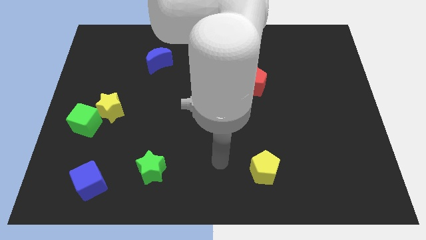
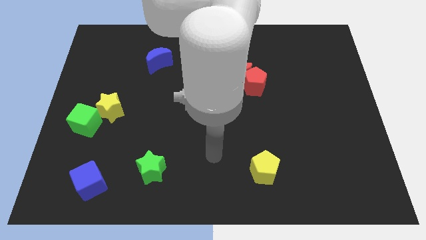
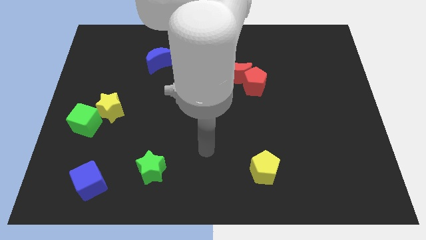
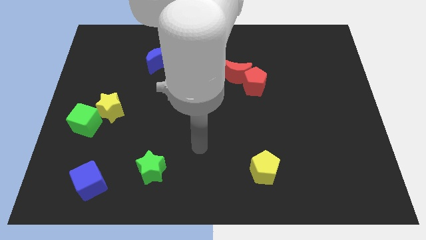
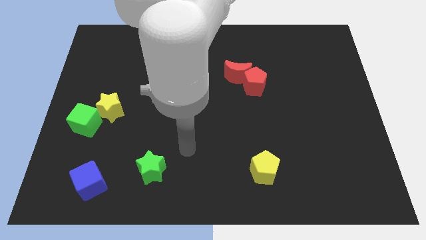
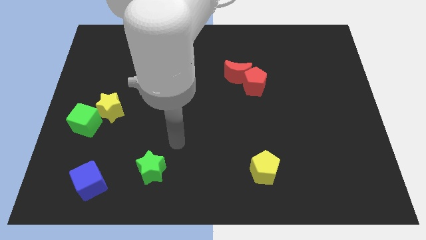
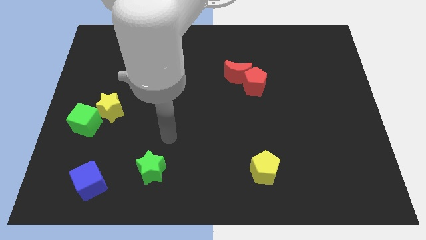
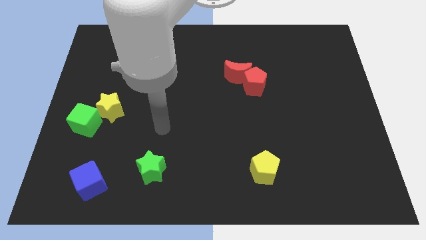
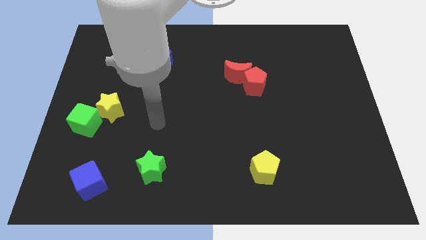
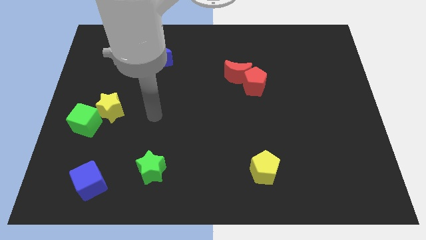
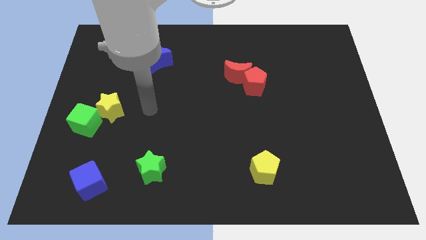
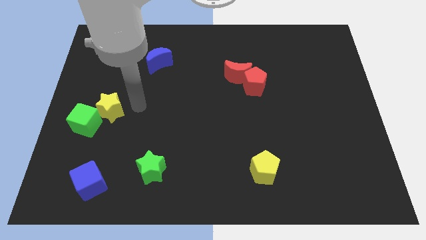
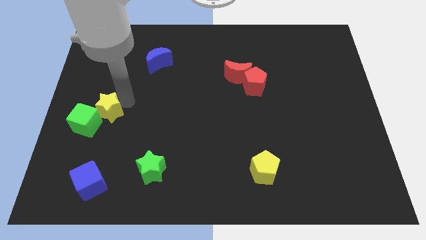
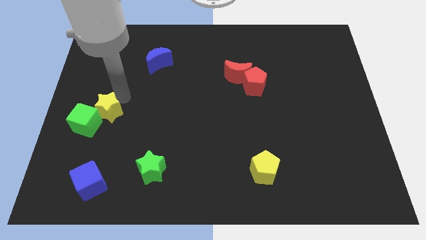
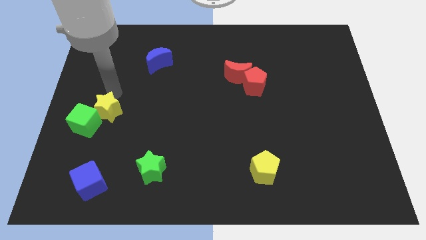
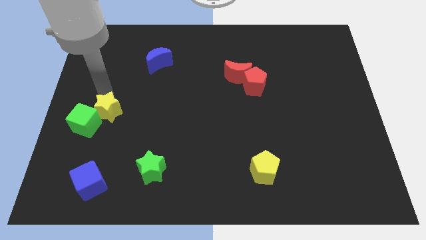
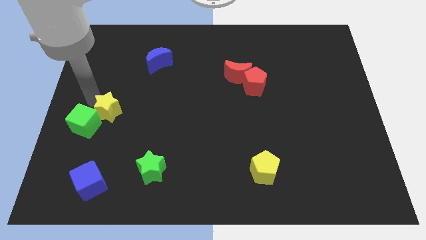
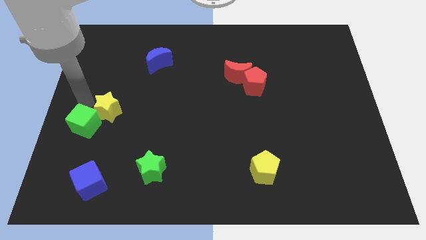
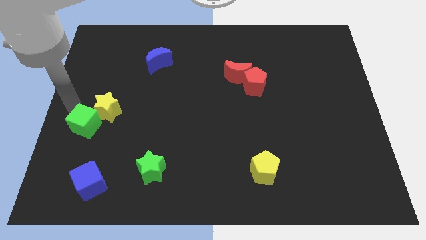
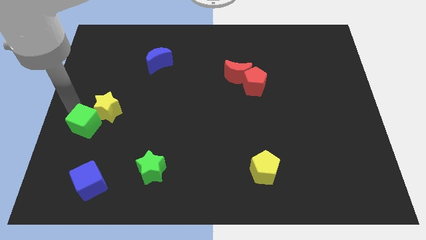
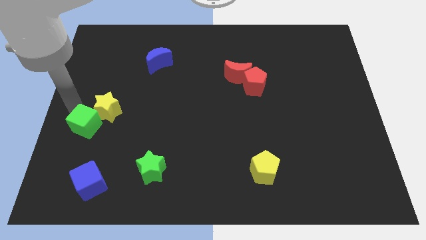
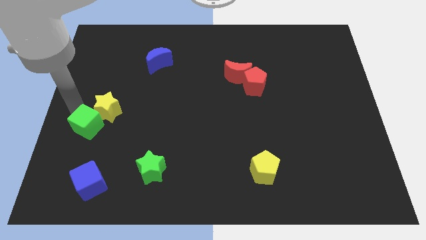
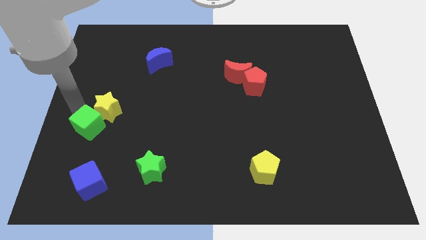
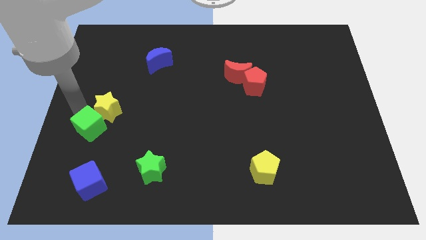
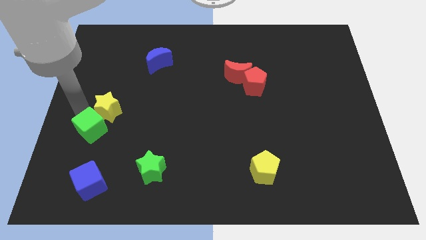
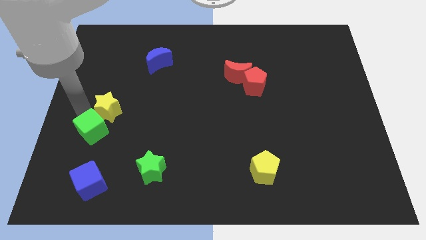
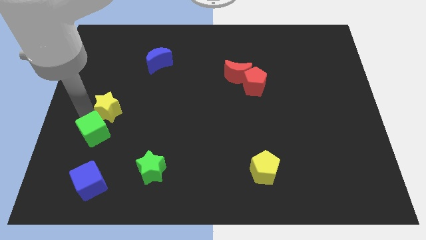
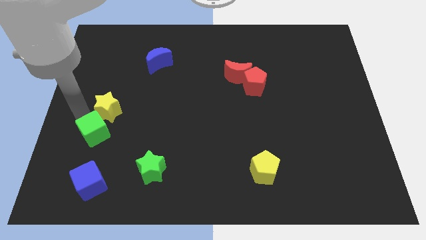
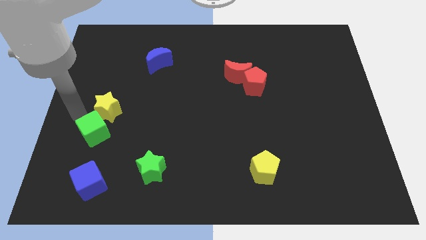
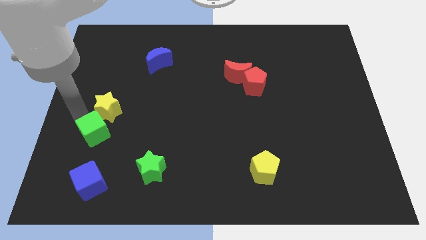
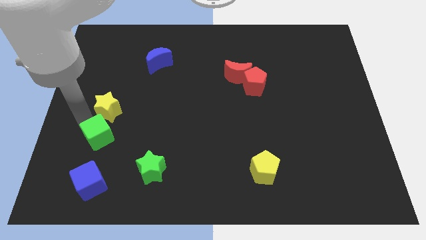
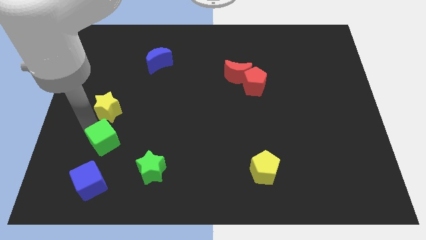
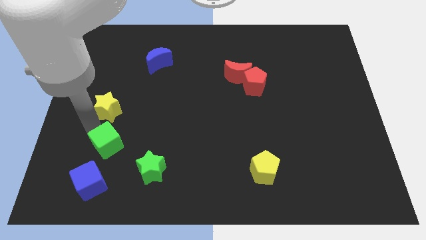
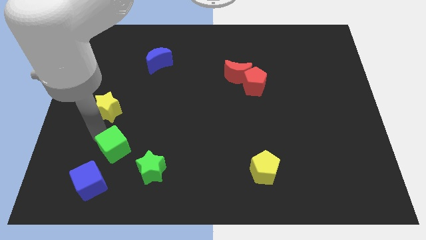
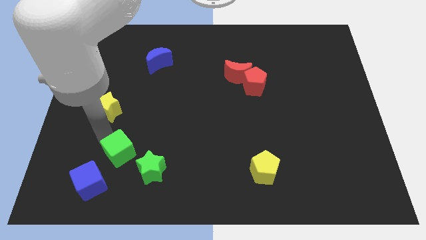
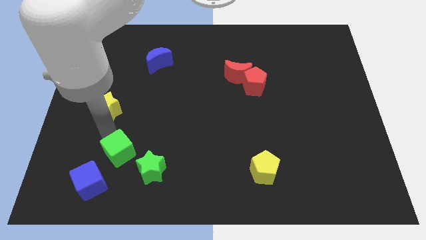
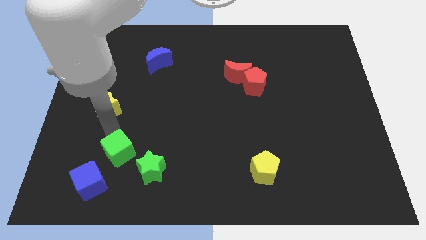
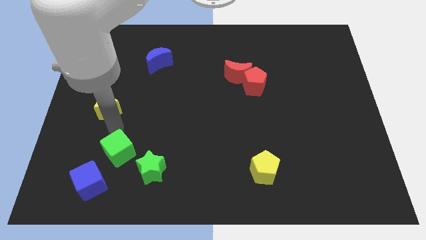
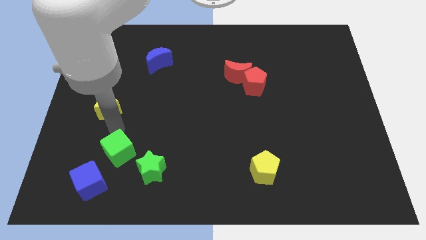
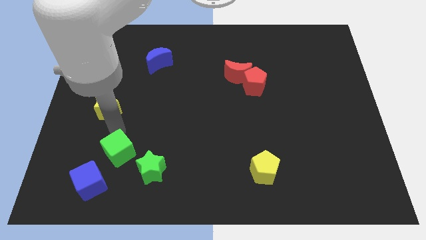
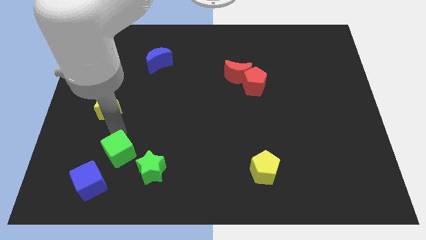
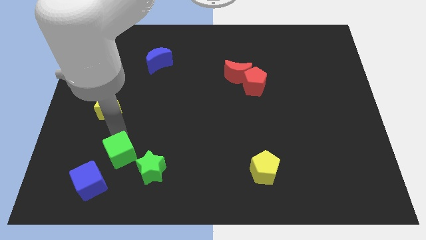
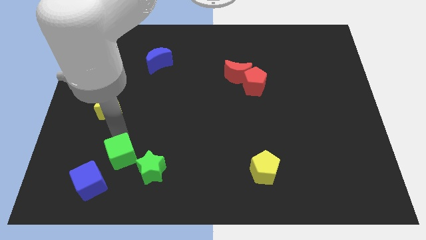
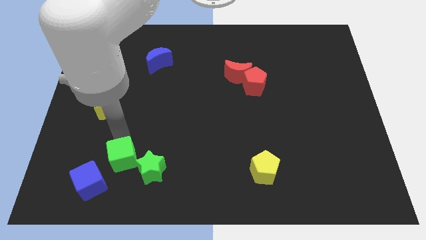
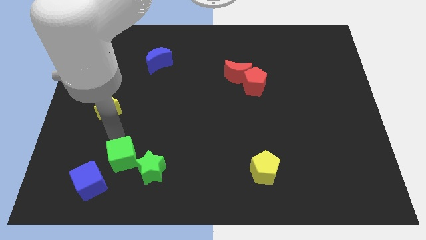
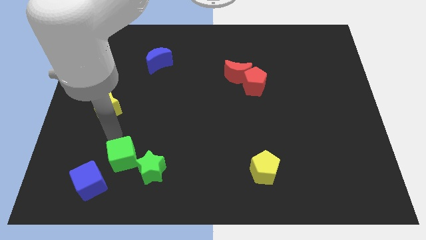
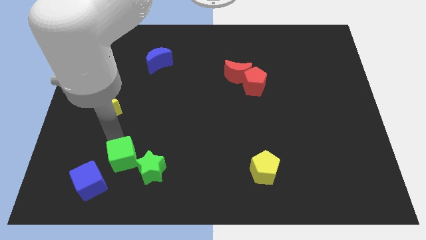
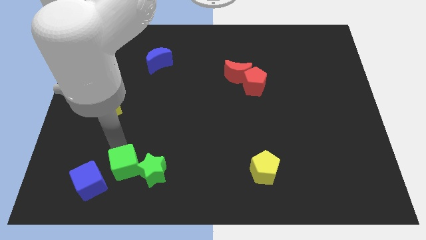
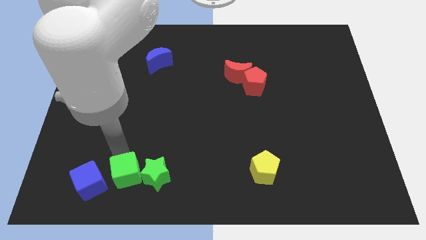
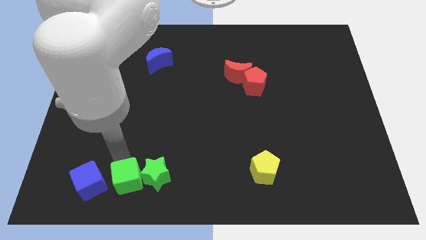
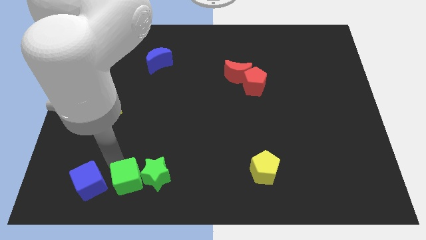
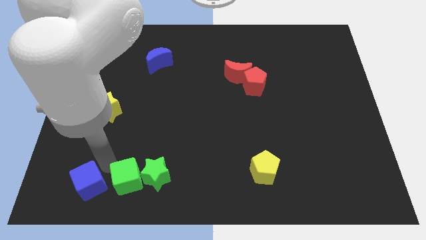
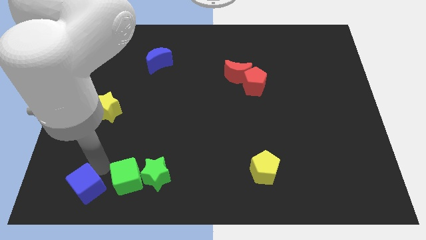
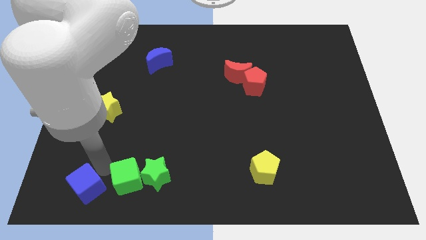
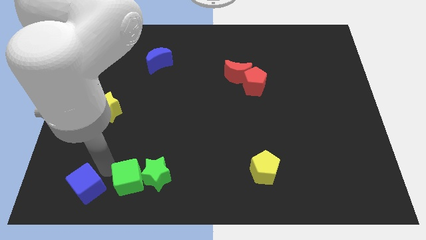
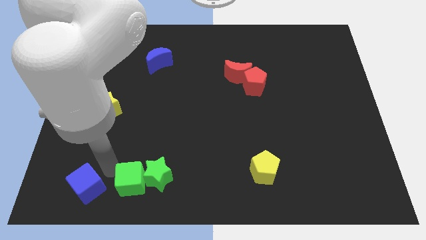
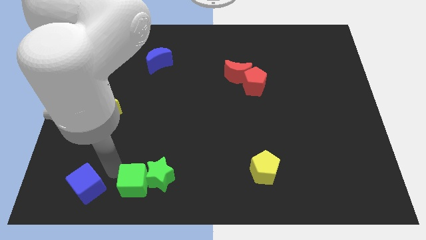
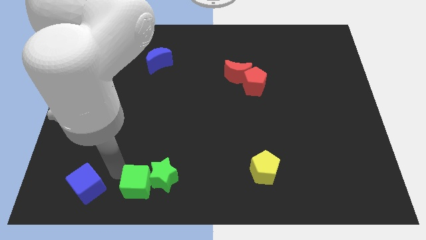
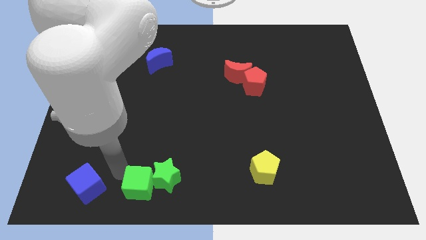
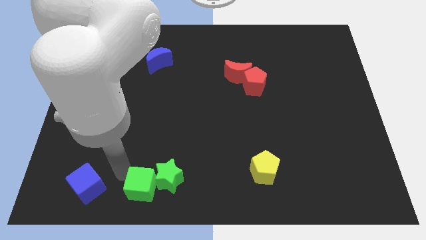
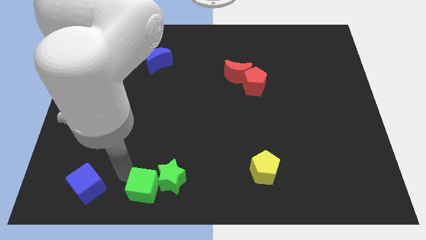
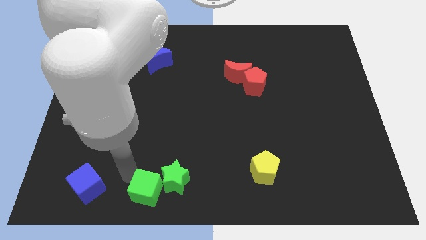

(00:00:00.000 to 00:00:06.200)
slide the green cube to the bottom side

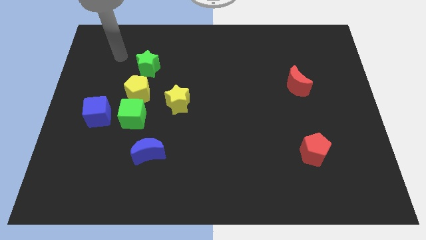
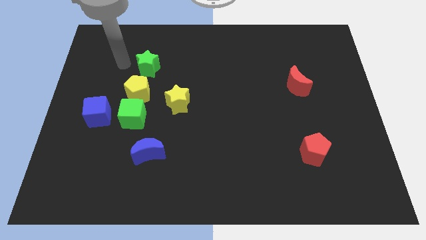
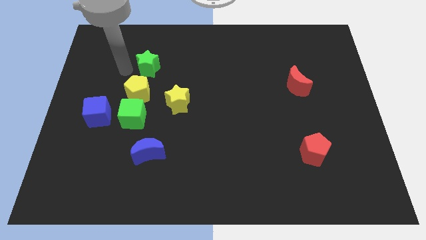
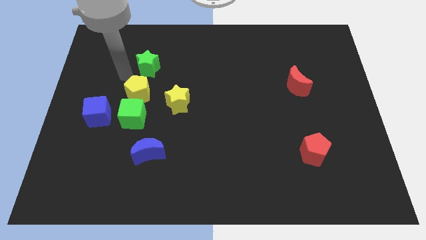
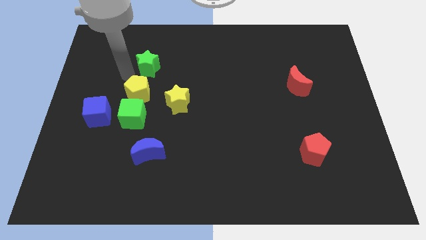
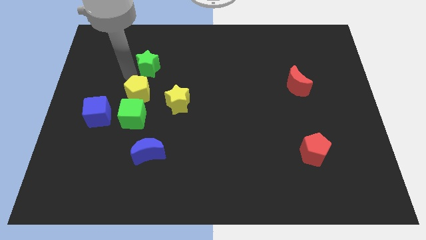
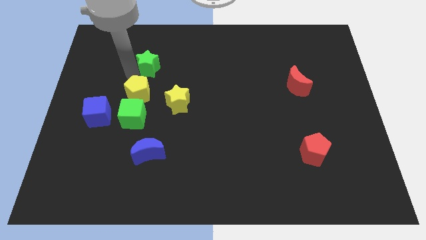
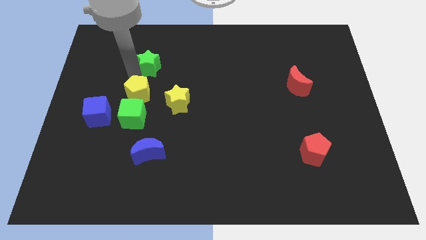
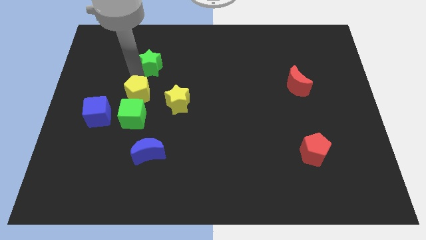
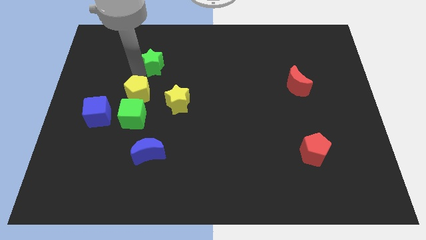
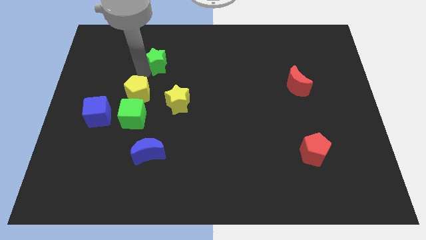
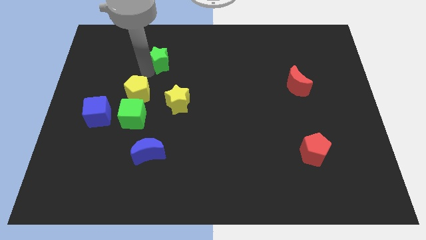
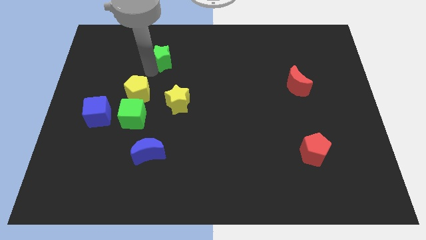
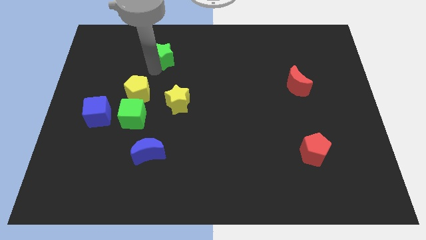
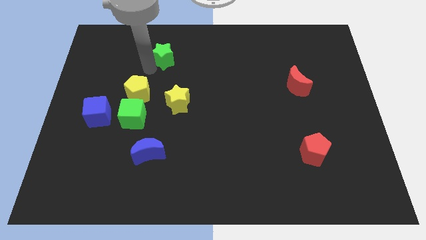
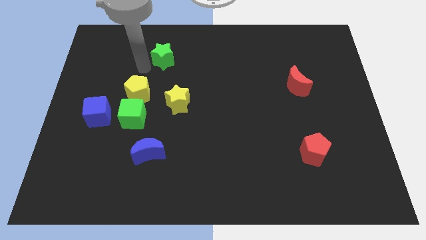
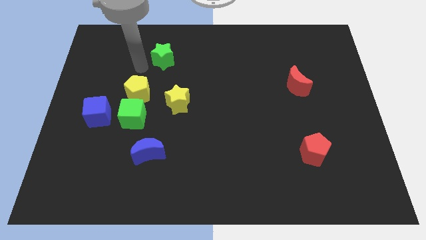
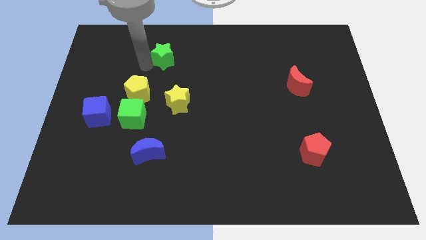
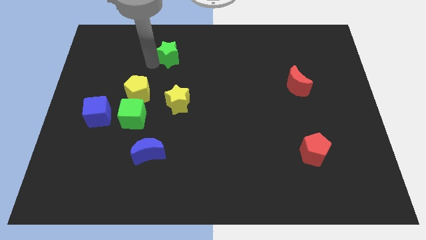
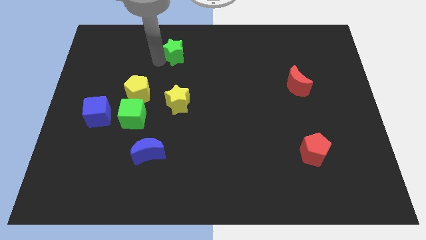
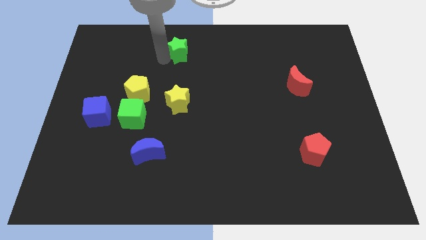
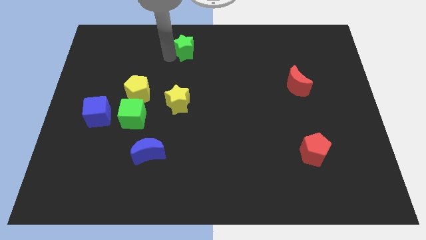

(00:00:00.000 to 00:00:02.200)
put the green star to the top
